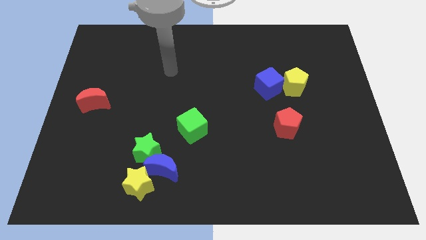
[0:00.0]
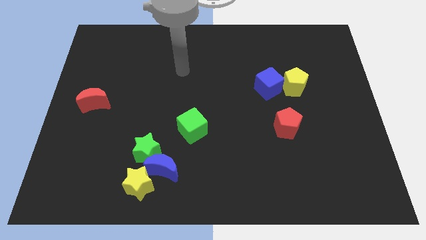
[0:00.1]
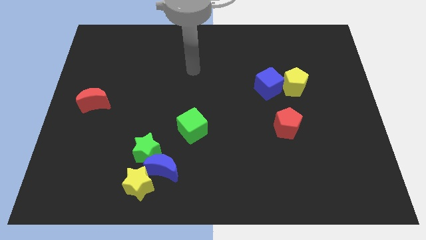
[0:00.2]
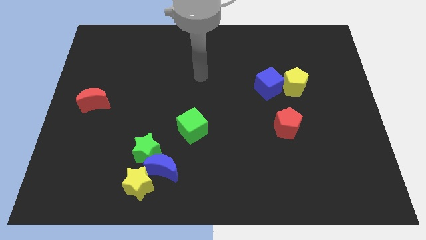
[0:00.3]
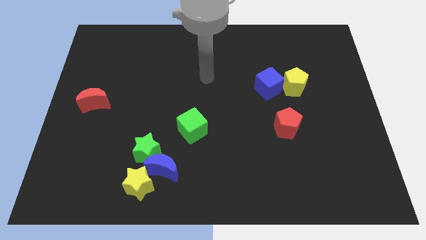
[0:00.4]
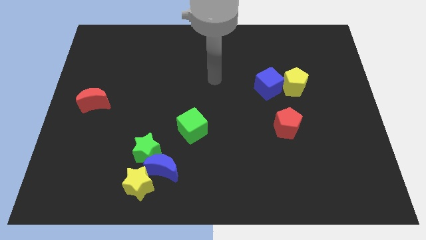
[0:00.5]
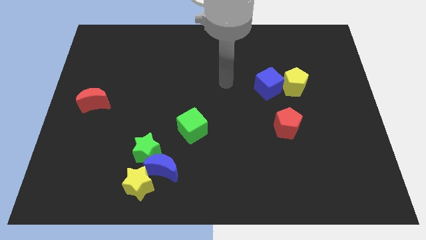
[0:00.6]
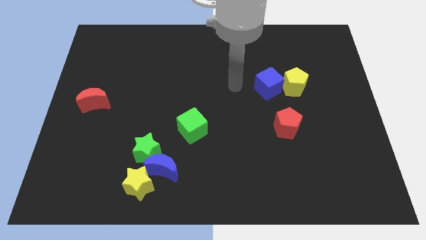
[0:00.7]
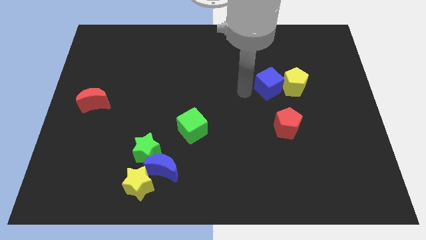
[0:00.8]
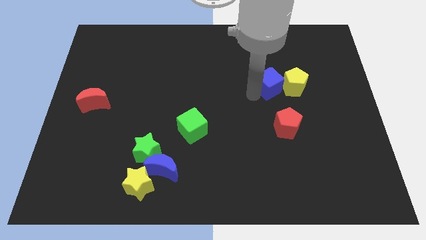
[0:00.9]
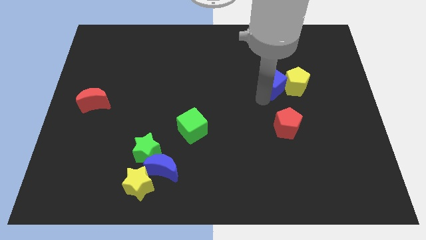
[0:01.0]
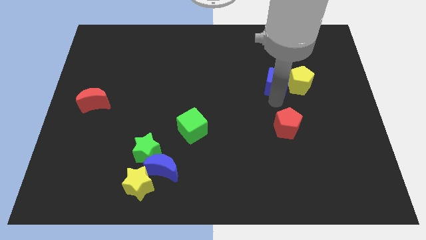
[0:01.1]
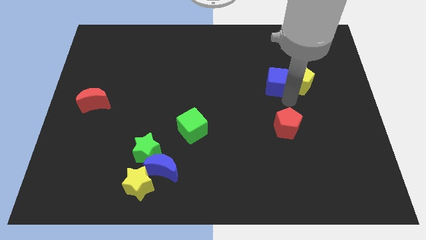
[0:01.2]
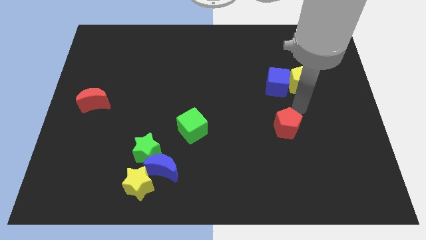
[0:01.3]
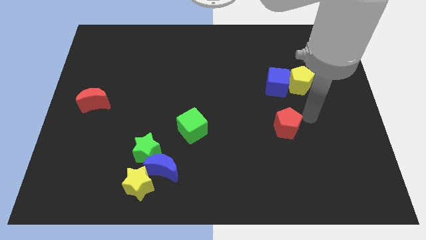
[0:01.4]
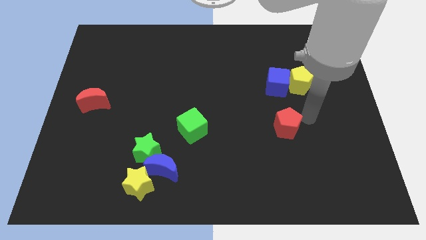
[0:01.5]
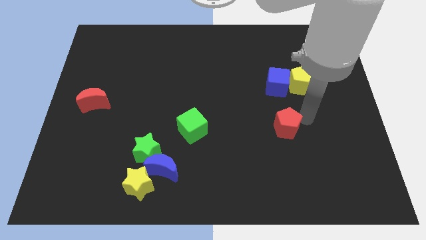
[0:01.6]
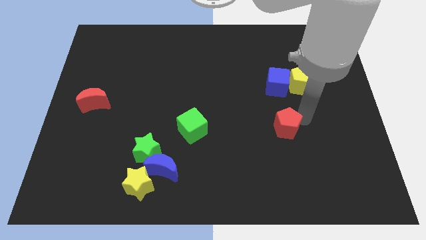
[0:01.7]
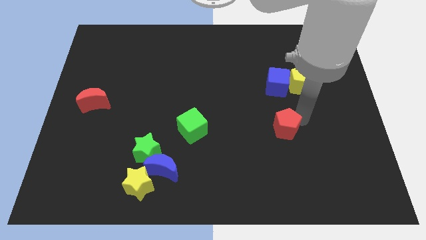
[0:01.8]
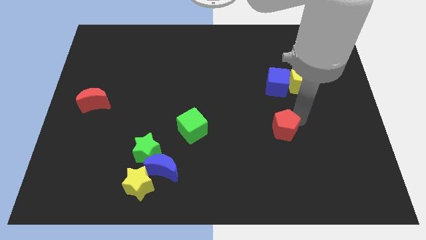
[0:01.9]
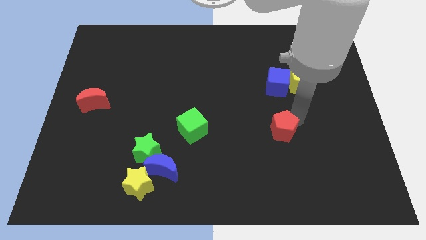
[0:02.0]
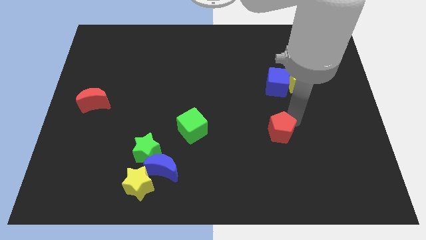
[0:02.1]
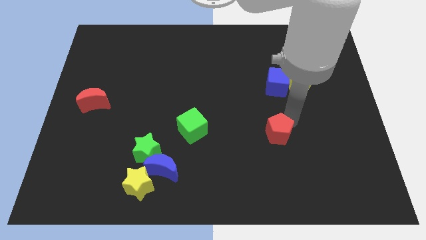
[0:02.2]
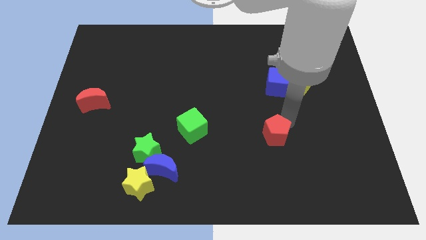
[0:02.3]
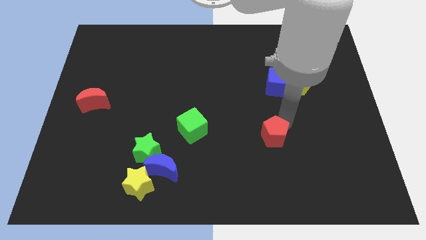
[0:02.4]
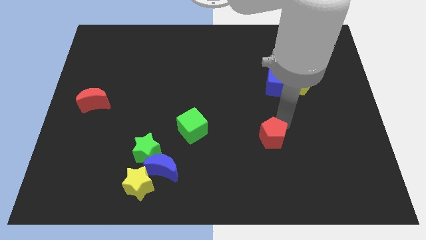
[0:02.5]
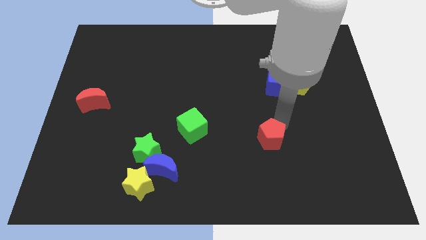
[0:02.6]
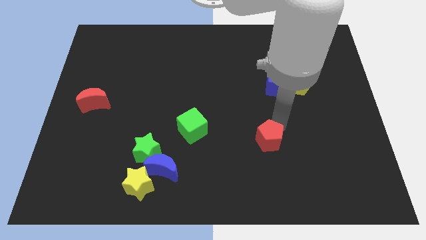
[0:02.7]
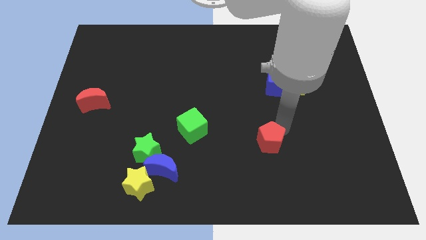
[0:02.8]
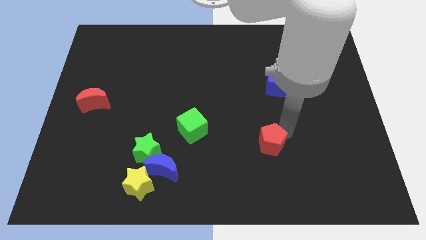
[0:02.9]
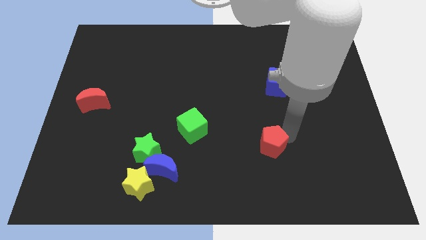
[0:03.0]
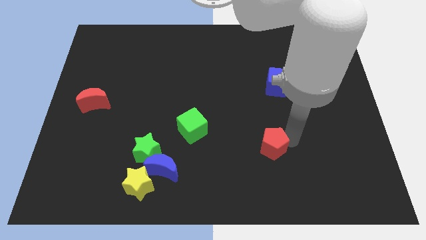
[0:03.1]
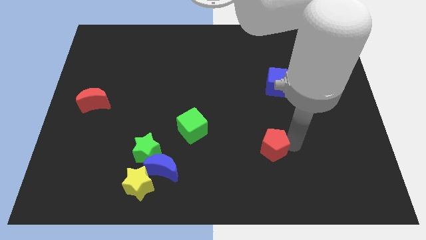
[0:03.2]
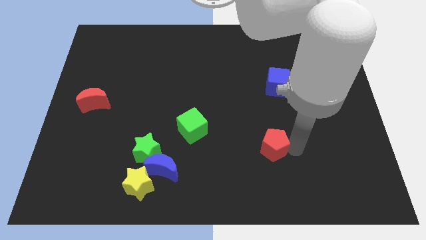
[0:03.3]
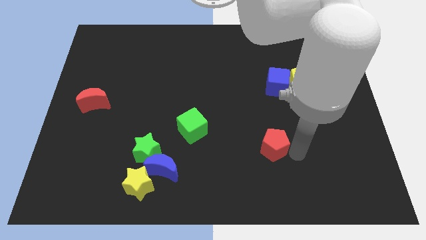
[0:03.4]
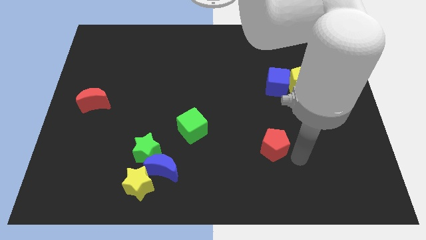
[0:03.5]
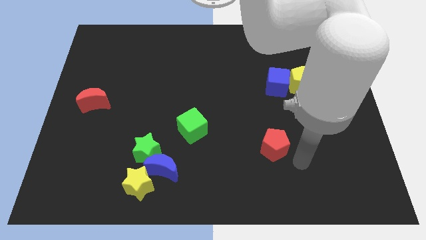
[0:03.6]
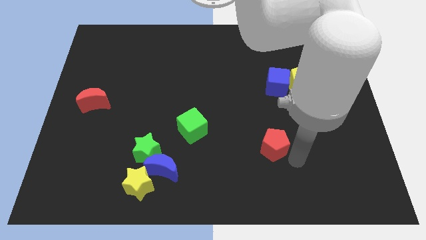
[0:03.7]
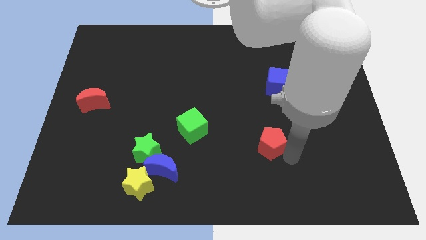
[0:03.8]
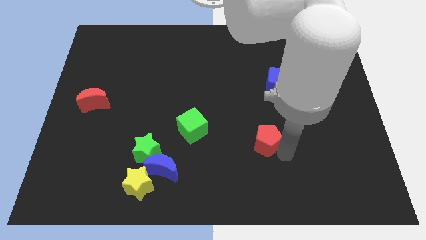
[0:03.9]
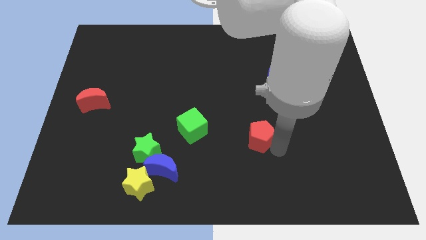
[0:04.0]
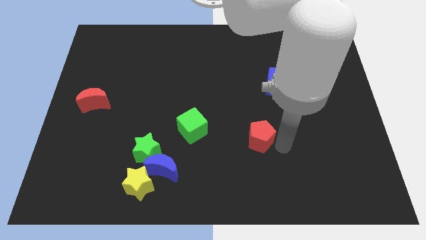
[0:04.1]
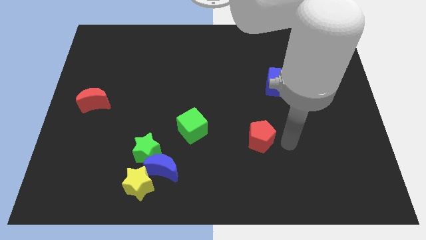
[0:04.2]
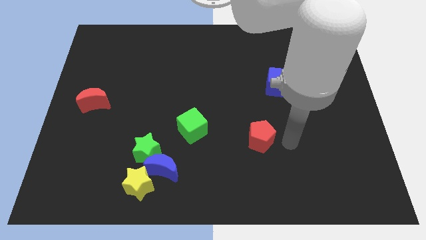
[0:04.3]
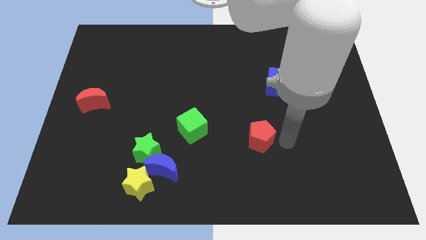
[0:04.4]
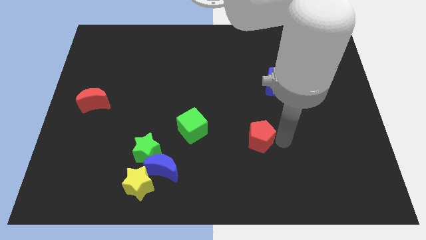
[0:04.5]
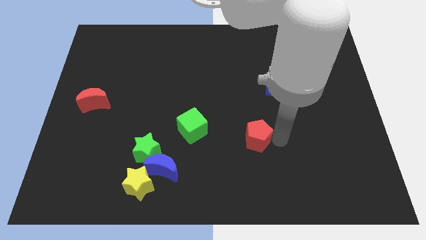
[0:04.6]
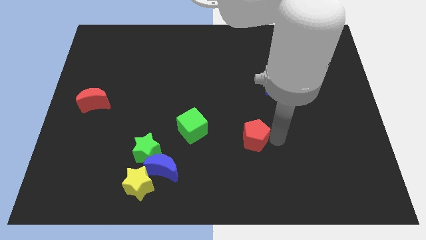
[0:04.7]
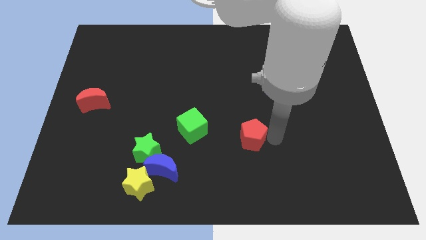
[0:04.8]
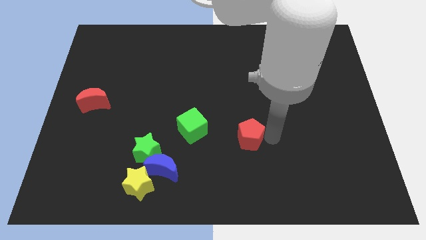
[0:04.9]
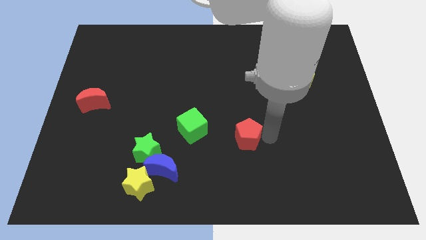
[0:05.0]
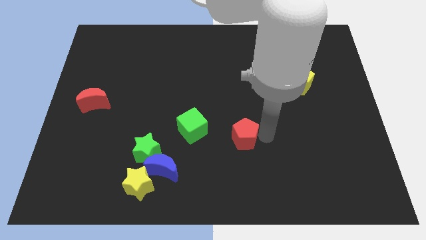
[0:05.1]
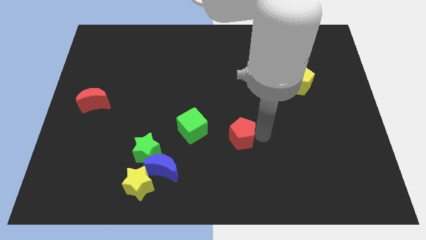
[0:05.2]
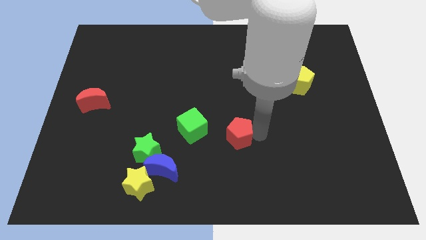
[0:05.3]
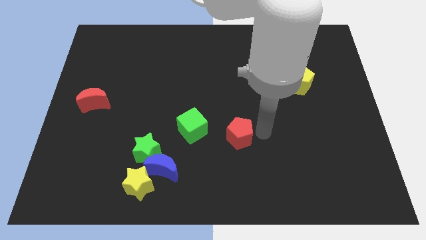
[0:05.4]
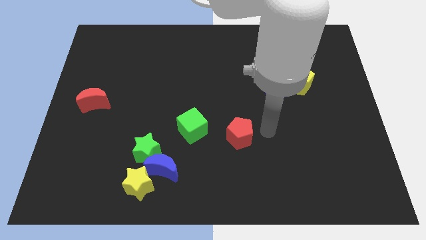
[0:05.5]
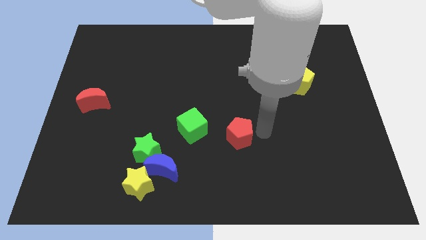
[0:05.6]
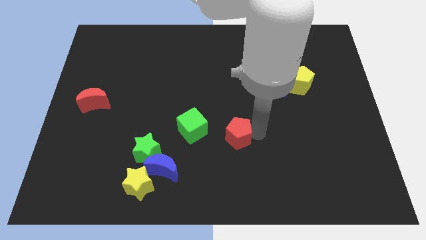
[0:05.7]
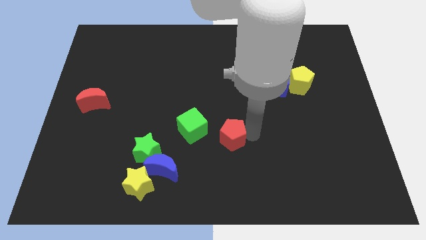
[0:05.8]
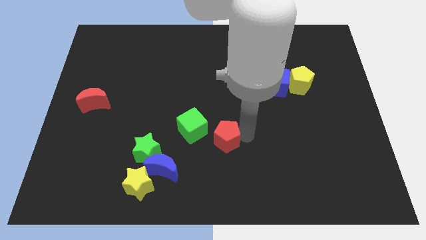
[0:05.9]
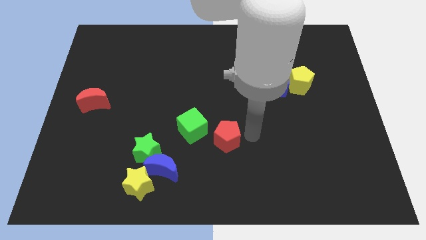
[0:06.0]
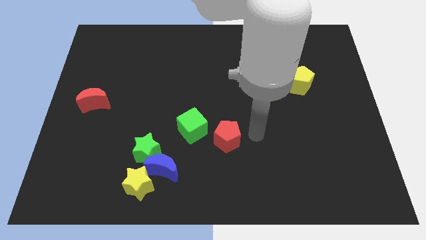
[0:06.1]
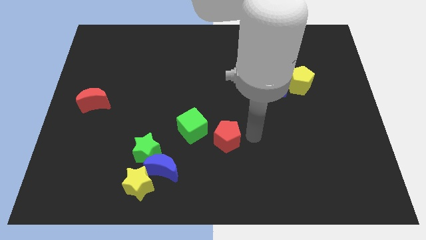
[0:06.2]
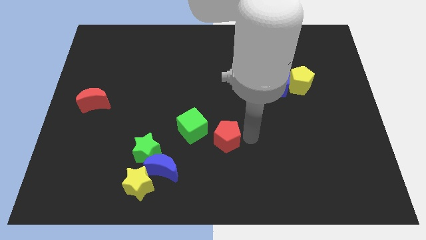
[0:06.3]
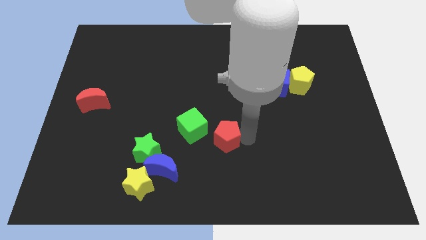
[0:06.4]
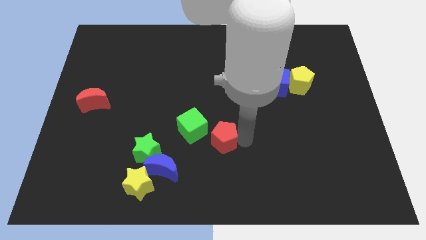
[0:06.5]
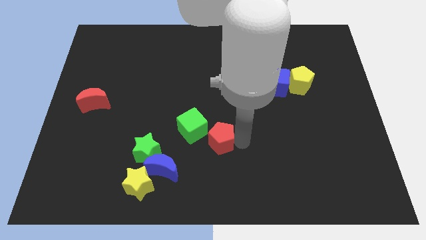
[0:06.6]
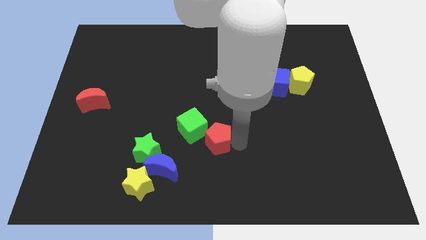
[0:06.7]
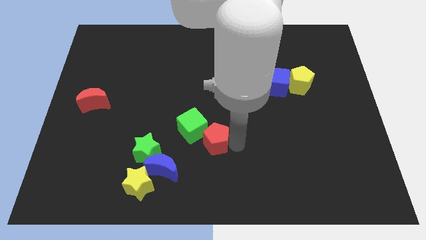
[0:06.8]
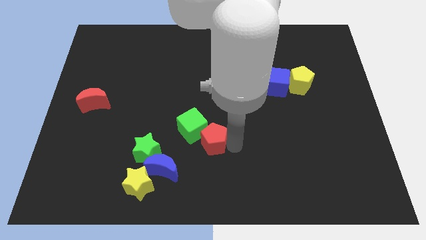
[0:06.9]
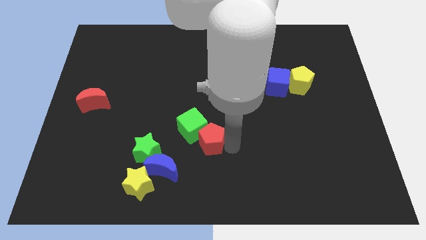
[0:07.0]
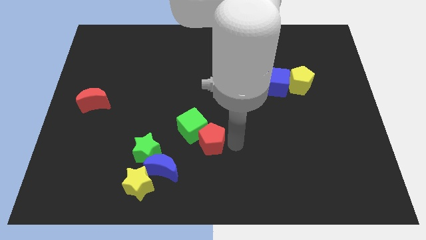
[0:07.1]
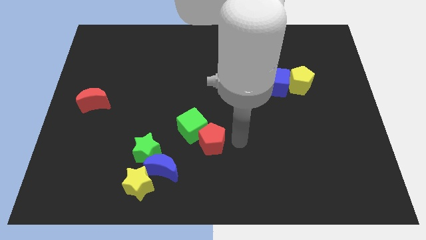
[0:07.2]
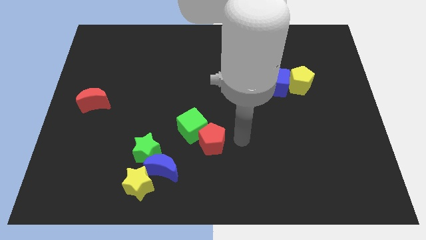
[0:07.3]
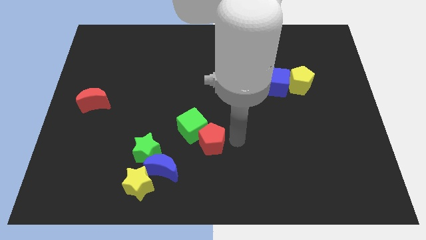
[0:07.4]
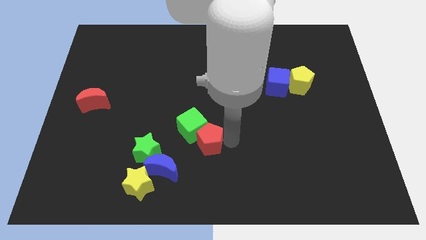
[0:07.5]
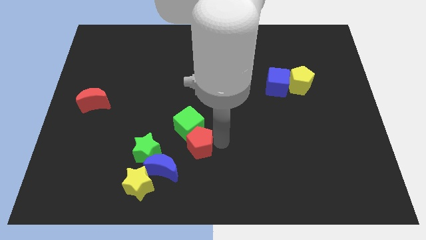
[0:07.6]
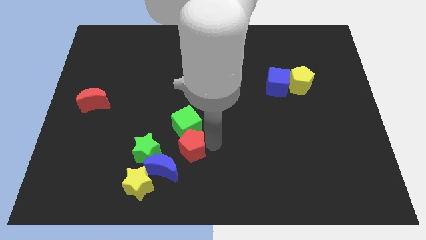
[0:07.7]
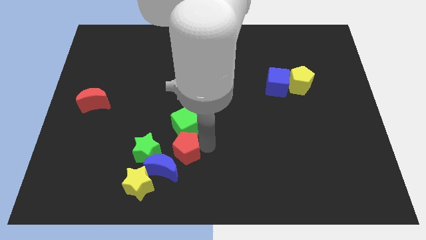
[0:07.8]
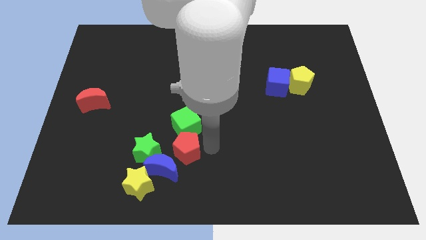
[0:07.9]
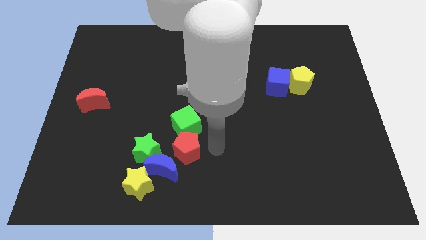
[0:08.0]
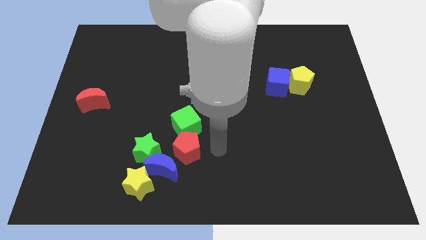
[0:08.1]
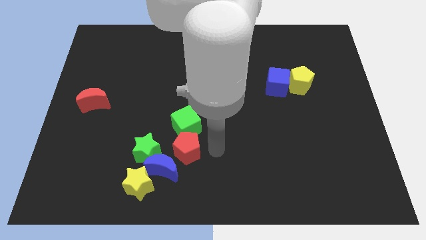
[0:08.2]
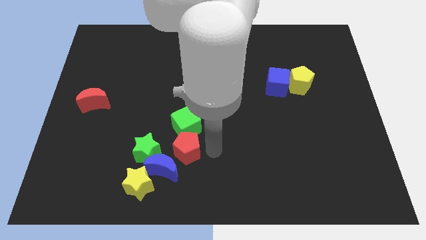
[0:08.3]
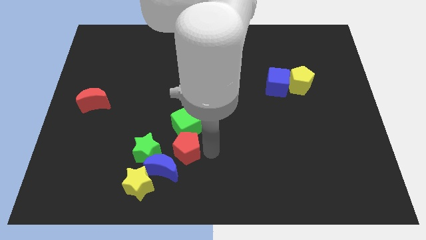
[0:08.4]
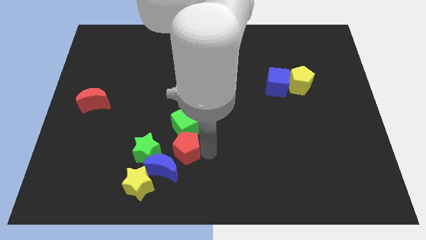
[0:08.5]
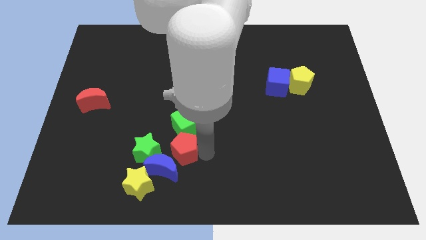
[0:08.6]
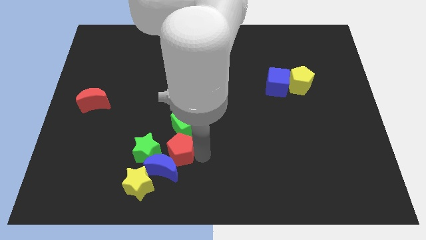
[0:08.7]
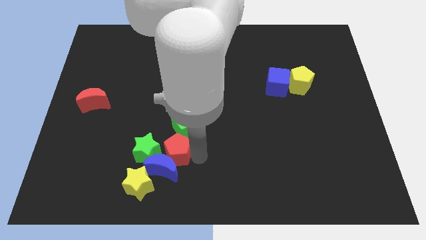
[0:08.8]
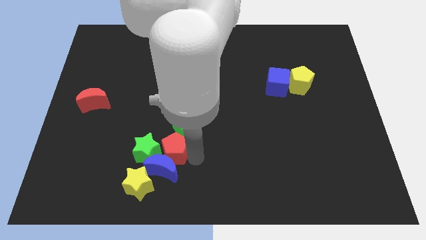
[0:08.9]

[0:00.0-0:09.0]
push the red pentagon towards the green star
